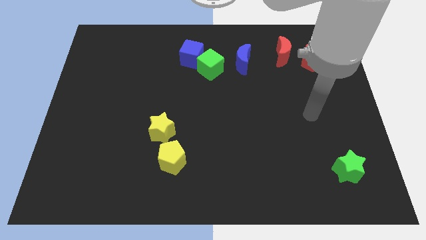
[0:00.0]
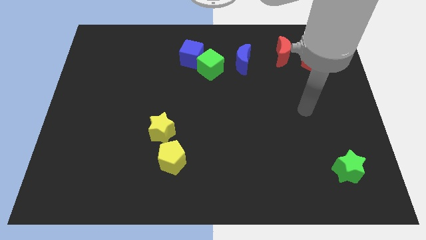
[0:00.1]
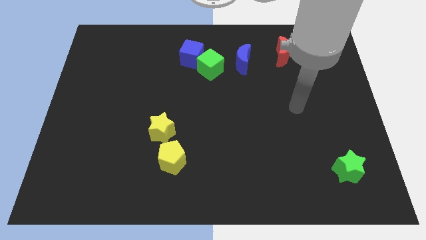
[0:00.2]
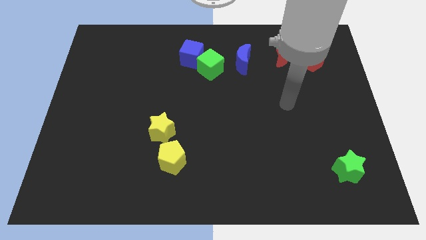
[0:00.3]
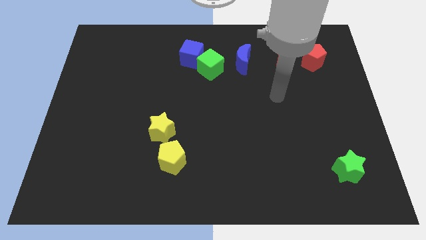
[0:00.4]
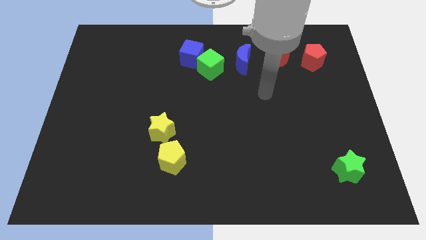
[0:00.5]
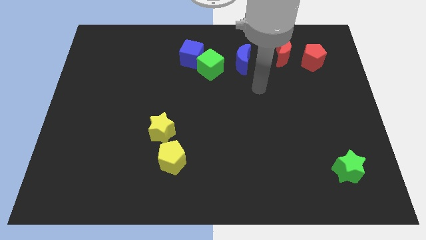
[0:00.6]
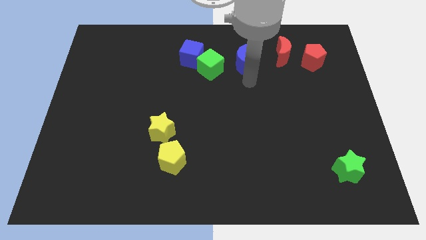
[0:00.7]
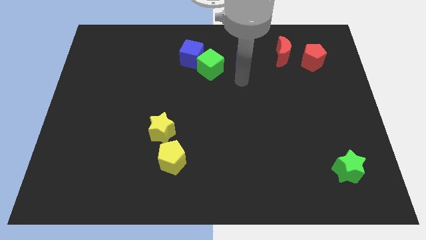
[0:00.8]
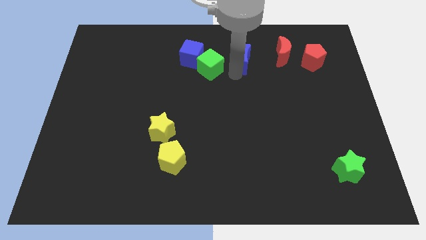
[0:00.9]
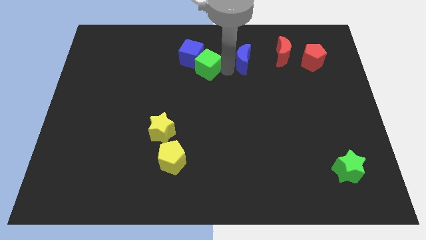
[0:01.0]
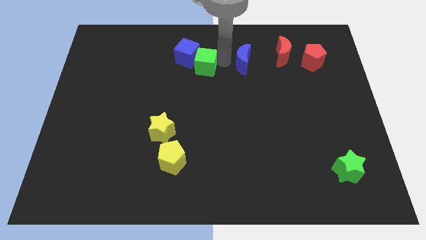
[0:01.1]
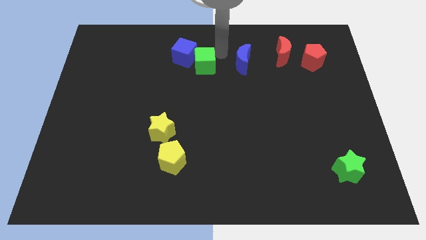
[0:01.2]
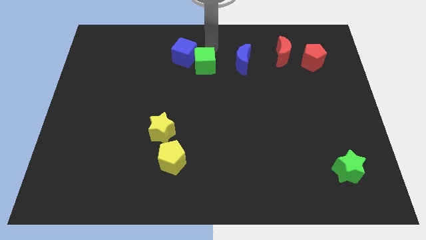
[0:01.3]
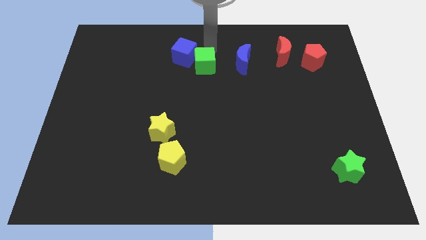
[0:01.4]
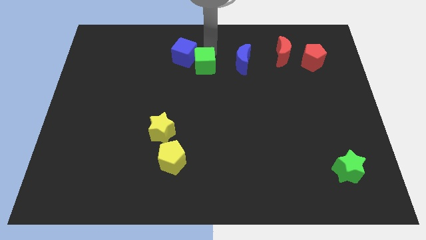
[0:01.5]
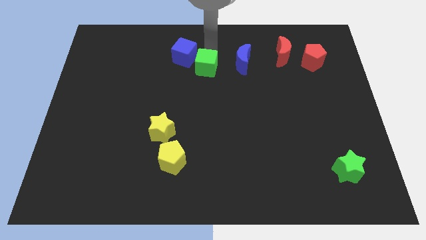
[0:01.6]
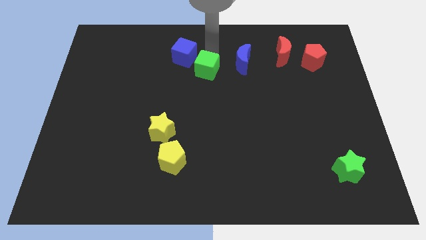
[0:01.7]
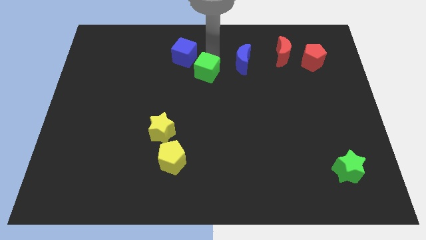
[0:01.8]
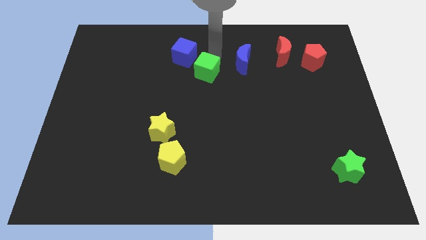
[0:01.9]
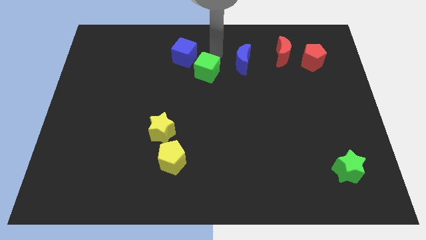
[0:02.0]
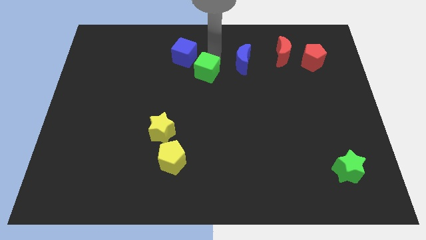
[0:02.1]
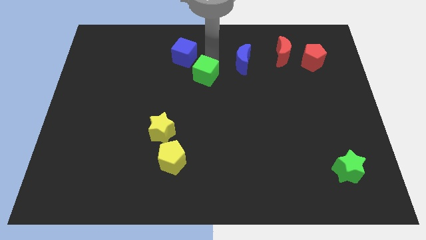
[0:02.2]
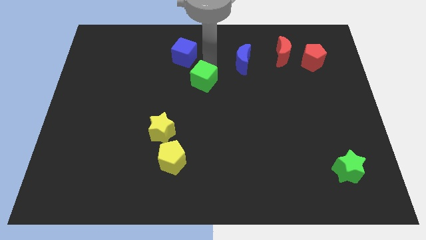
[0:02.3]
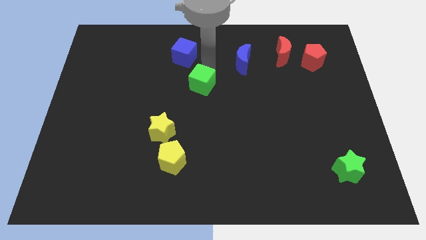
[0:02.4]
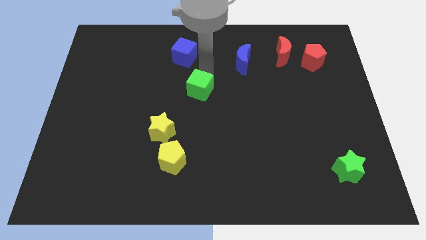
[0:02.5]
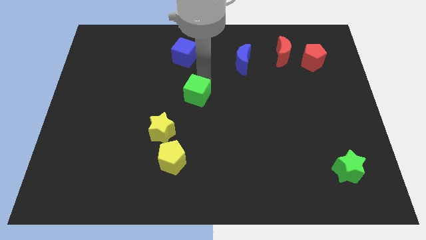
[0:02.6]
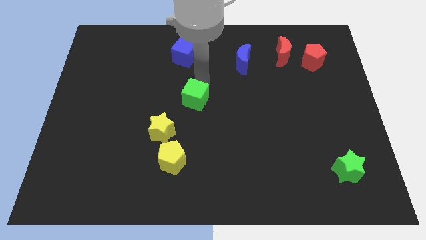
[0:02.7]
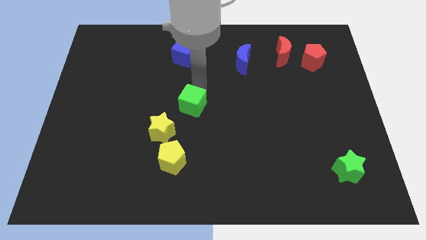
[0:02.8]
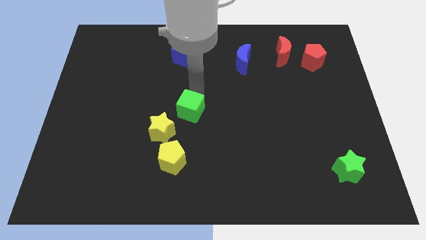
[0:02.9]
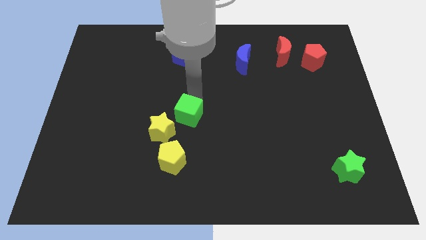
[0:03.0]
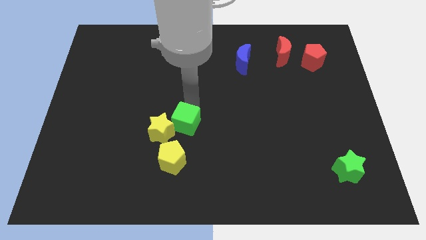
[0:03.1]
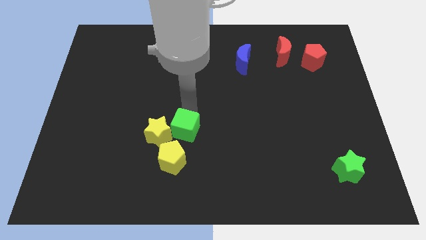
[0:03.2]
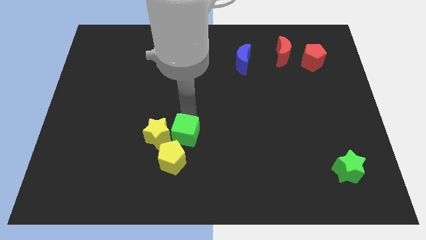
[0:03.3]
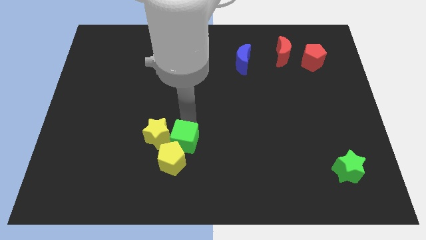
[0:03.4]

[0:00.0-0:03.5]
push the green cube towards the yellow pentagon

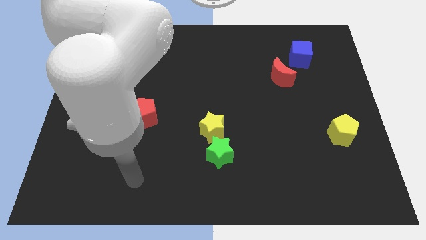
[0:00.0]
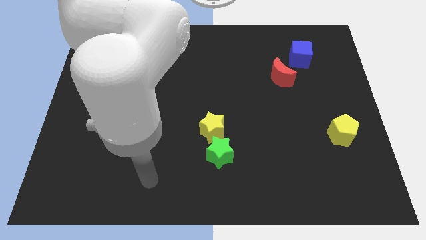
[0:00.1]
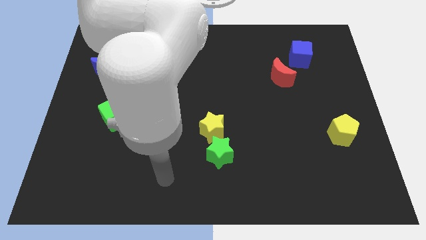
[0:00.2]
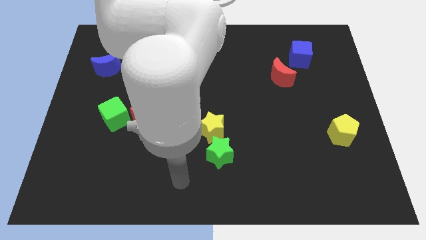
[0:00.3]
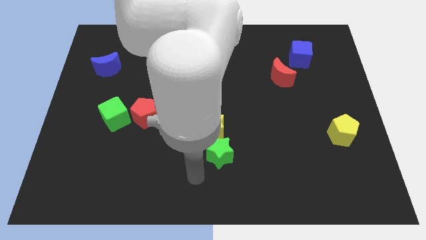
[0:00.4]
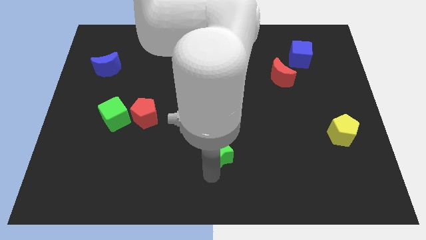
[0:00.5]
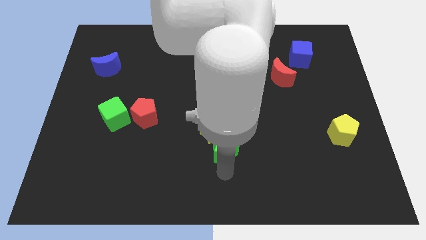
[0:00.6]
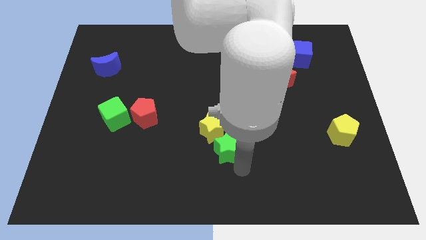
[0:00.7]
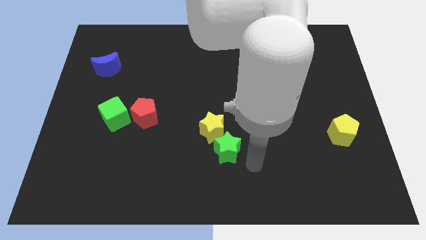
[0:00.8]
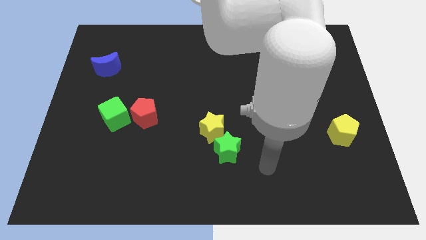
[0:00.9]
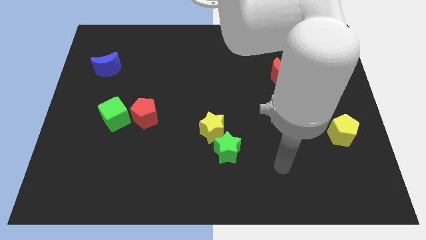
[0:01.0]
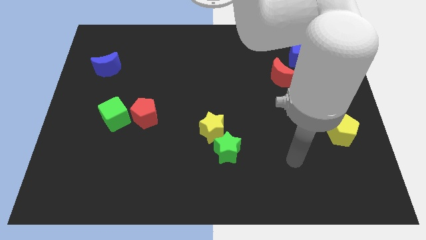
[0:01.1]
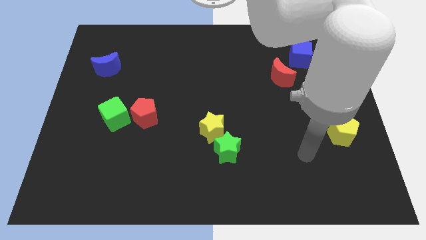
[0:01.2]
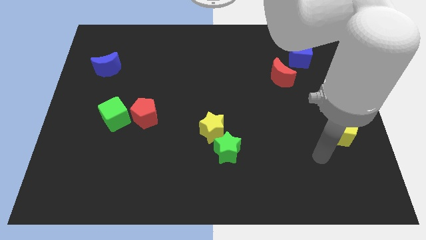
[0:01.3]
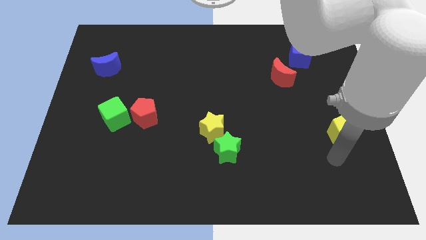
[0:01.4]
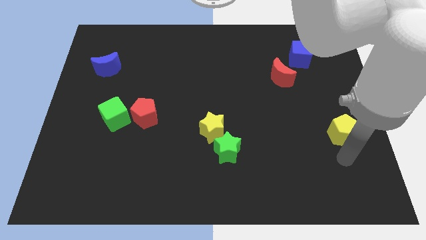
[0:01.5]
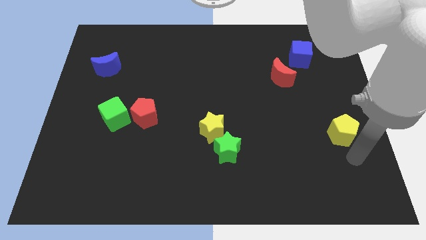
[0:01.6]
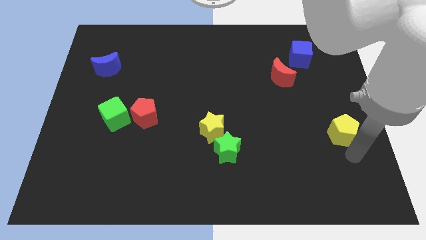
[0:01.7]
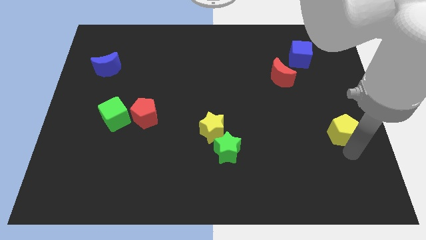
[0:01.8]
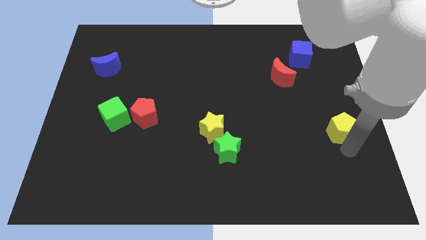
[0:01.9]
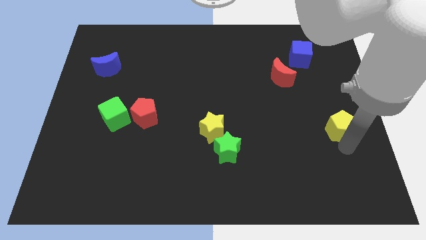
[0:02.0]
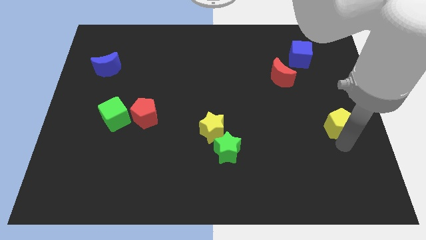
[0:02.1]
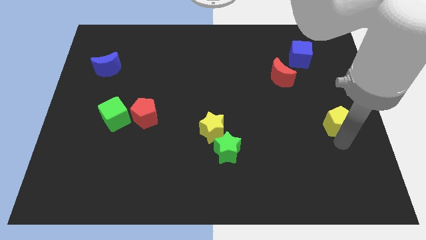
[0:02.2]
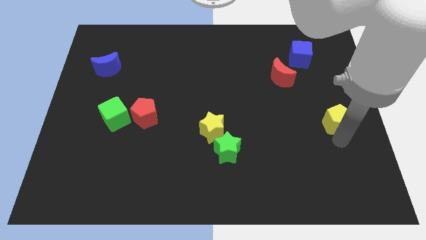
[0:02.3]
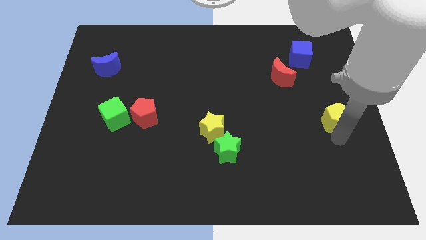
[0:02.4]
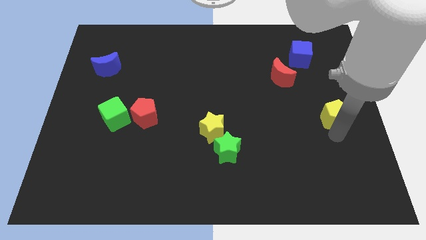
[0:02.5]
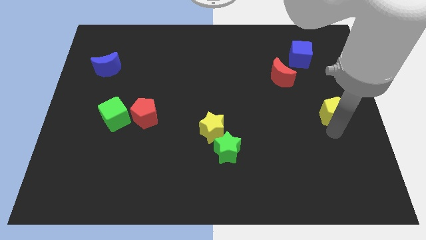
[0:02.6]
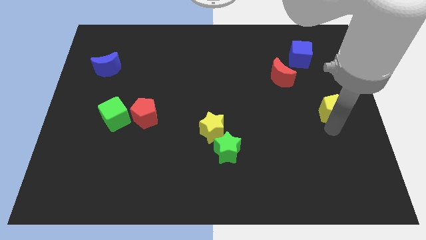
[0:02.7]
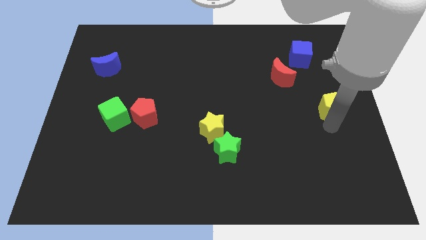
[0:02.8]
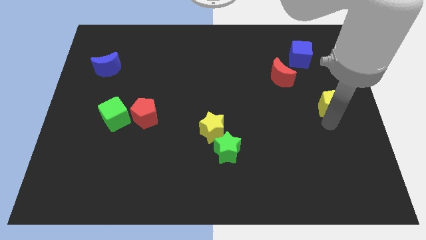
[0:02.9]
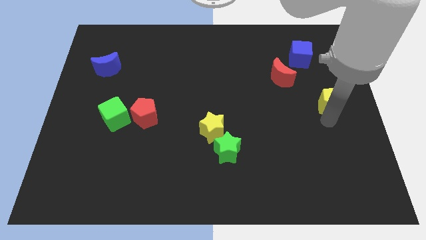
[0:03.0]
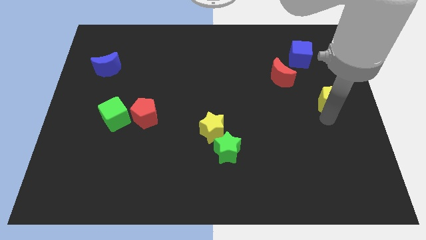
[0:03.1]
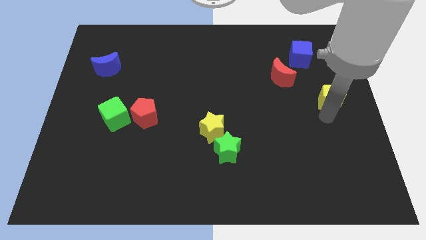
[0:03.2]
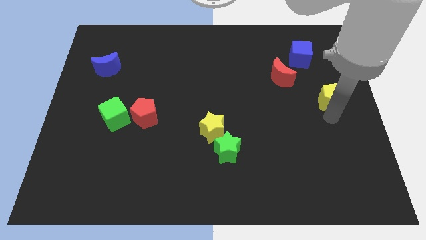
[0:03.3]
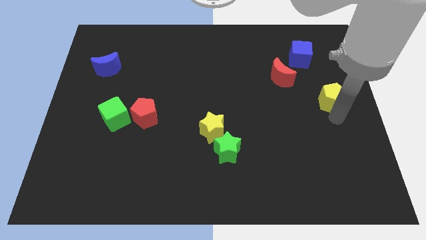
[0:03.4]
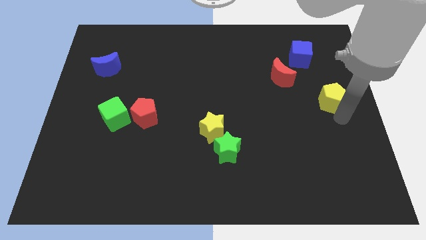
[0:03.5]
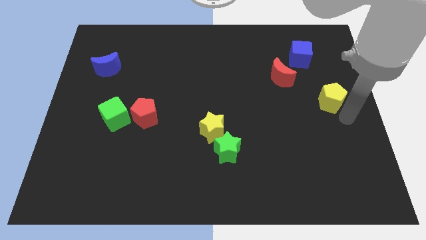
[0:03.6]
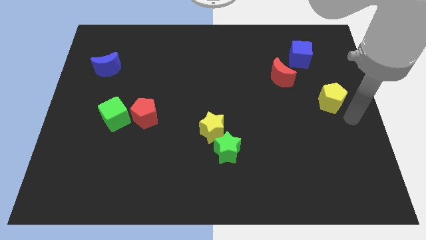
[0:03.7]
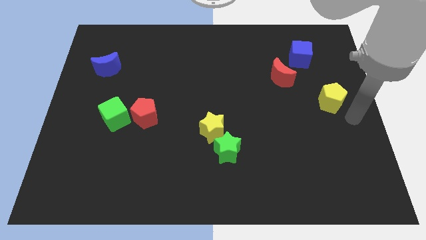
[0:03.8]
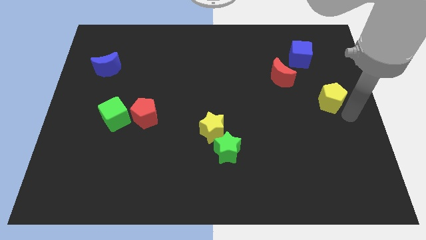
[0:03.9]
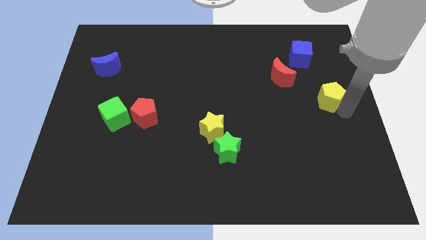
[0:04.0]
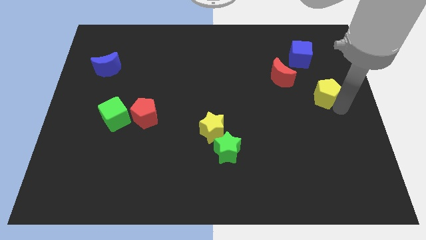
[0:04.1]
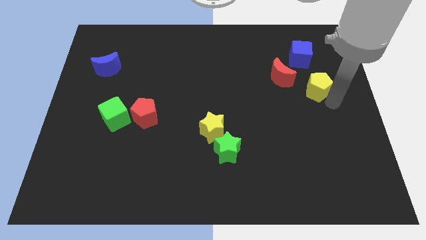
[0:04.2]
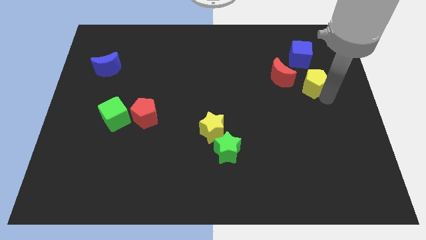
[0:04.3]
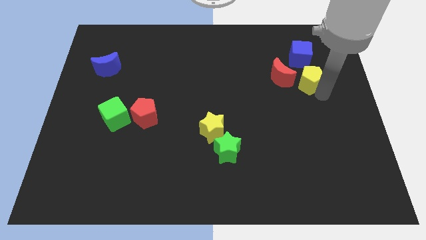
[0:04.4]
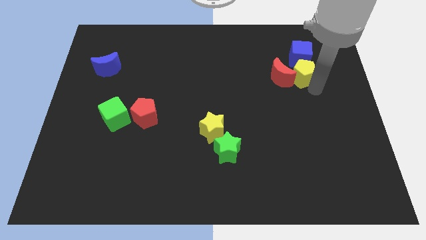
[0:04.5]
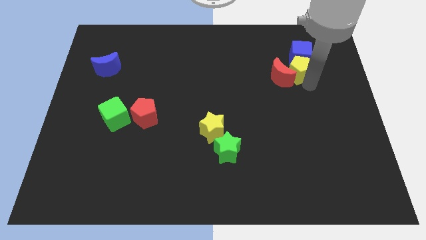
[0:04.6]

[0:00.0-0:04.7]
put the yellow pentagon close to the blue cube
